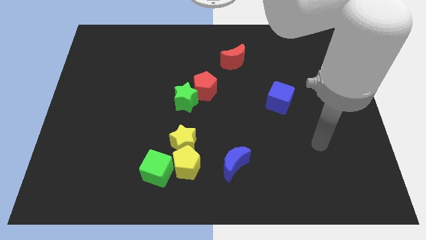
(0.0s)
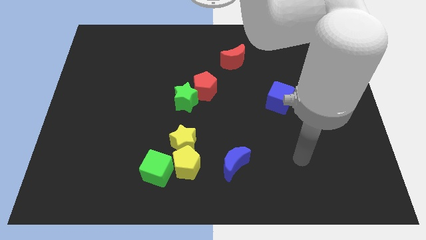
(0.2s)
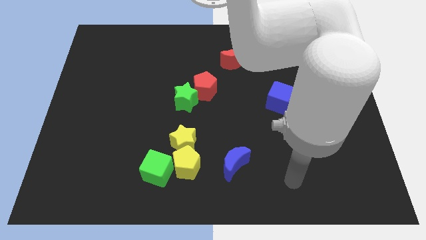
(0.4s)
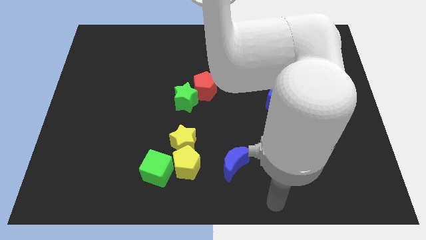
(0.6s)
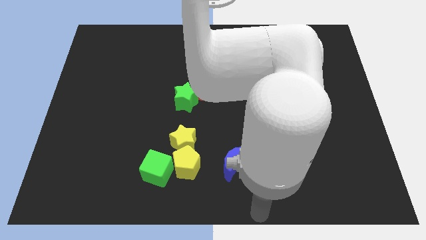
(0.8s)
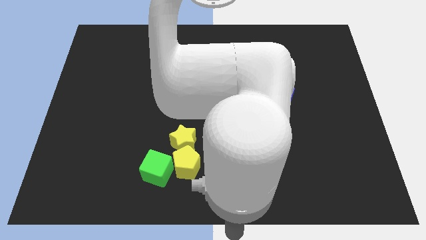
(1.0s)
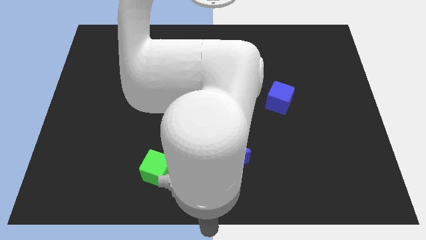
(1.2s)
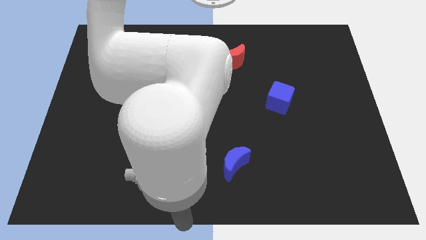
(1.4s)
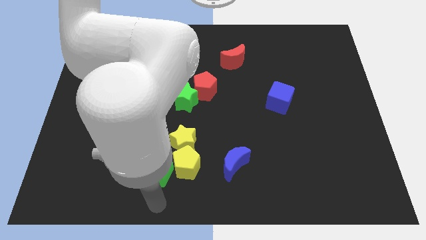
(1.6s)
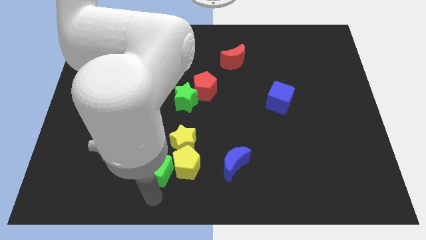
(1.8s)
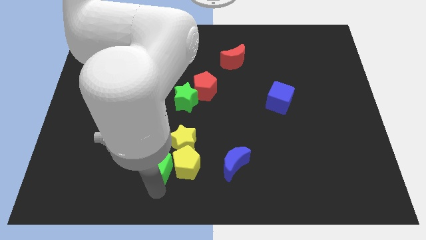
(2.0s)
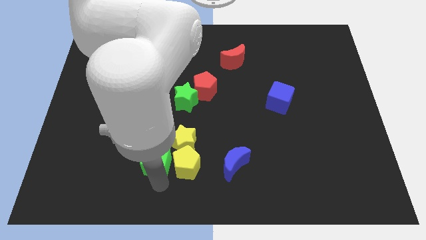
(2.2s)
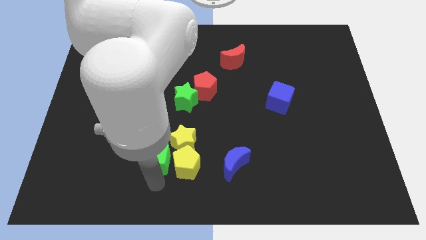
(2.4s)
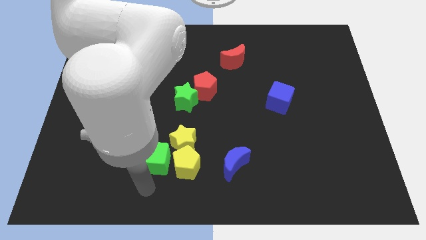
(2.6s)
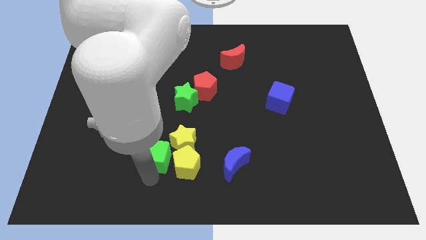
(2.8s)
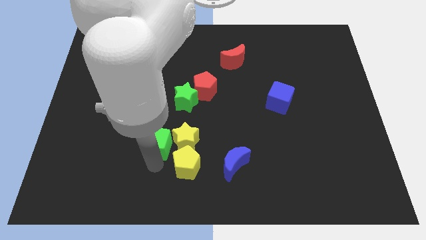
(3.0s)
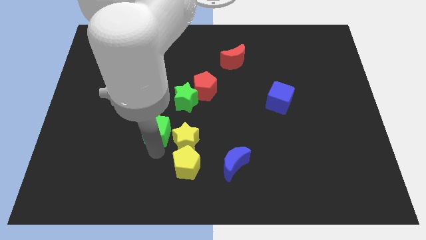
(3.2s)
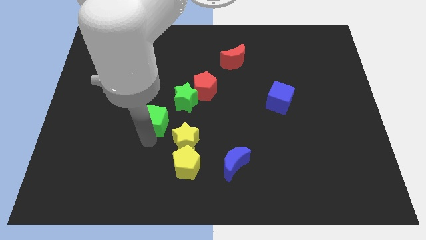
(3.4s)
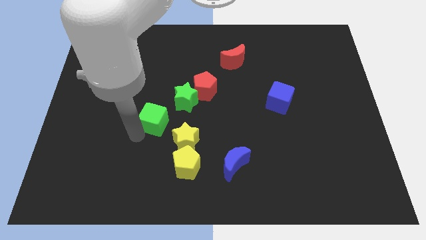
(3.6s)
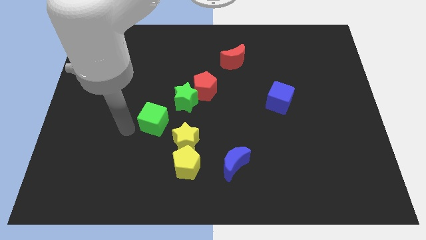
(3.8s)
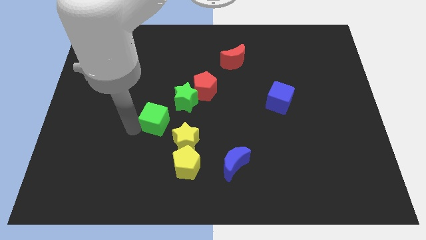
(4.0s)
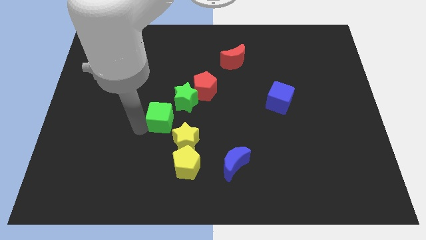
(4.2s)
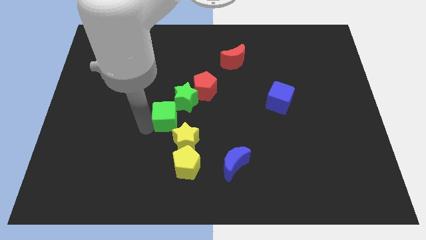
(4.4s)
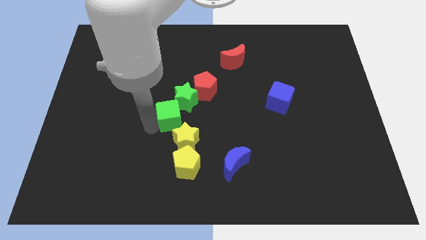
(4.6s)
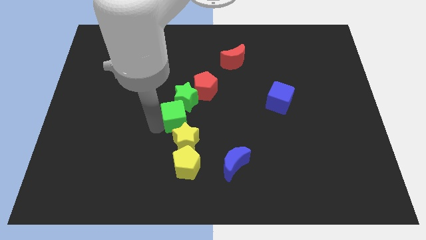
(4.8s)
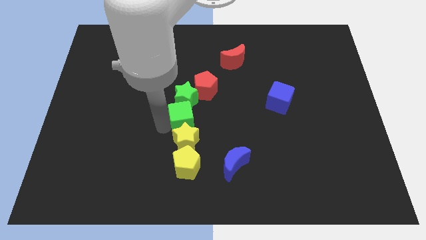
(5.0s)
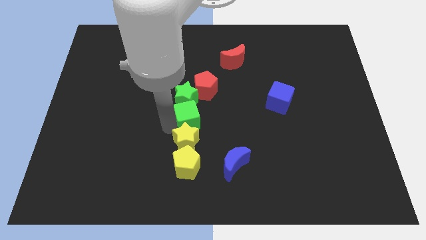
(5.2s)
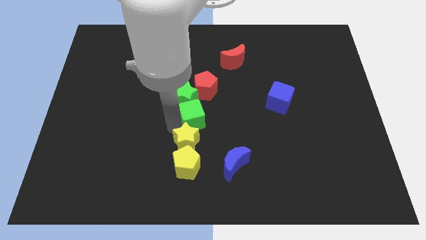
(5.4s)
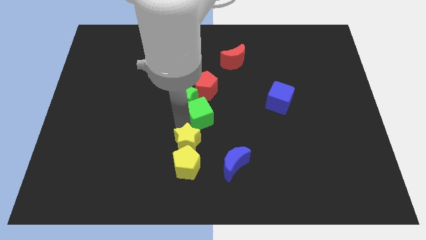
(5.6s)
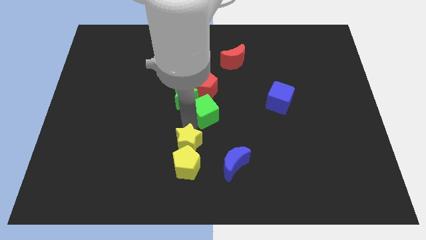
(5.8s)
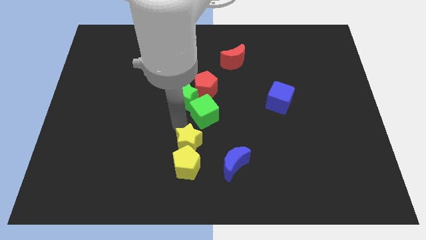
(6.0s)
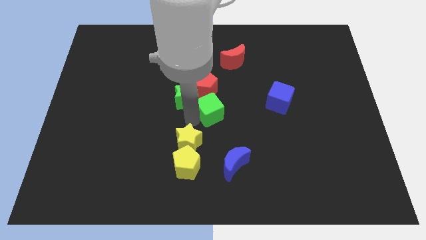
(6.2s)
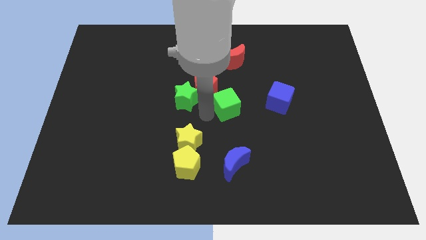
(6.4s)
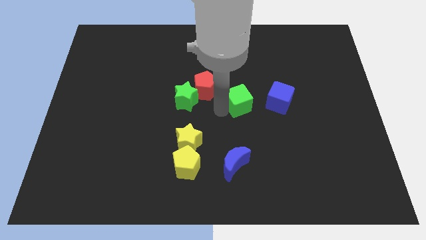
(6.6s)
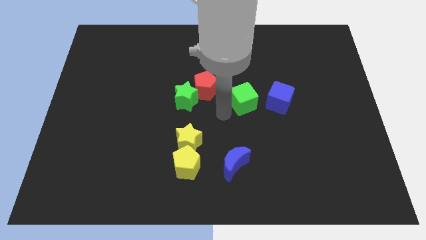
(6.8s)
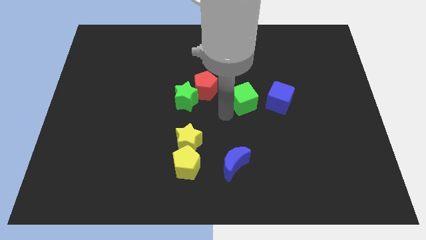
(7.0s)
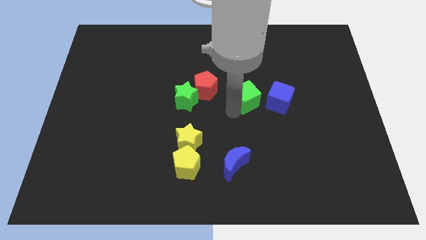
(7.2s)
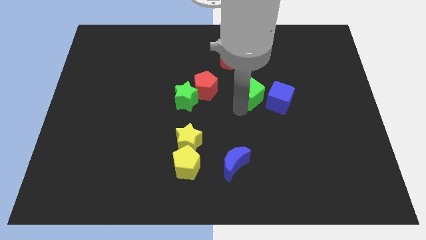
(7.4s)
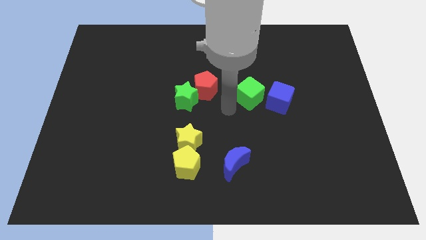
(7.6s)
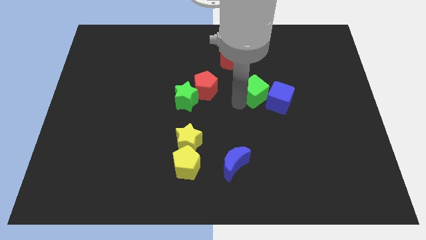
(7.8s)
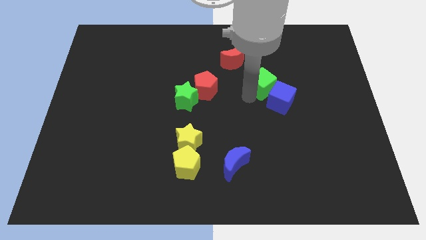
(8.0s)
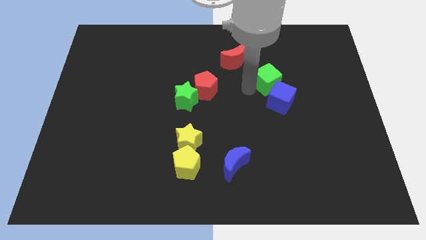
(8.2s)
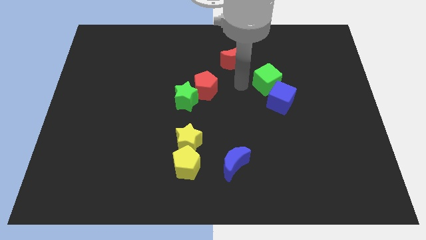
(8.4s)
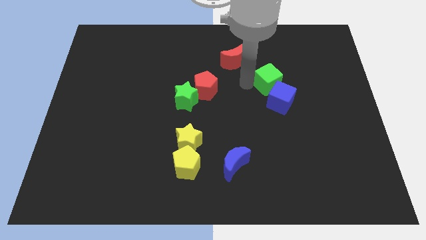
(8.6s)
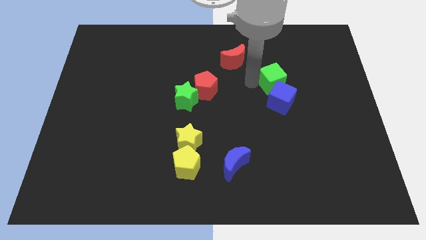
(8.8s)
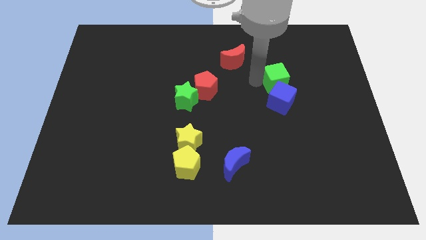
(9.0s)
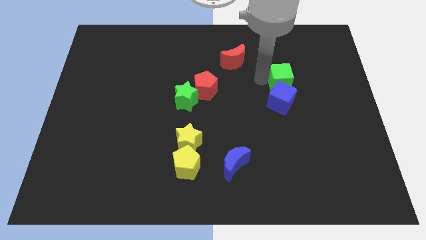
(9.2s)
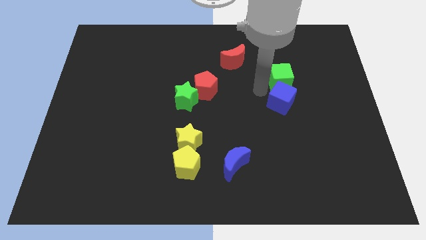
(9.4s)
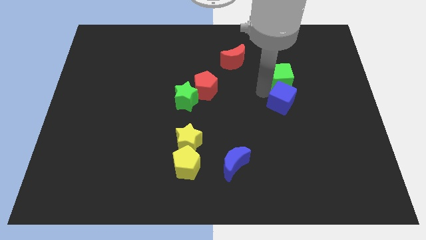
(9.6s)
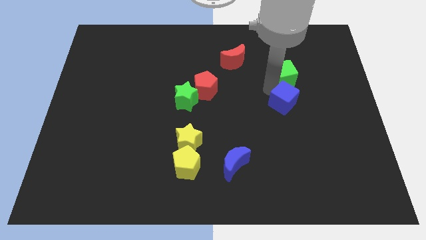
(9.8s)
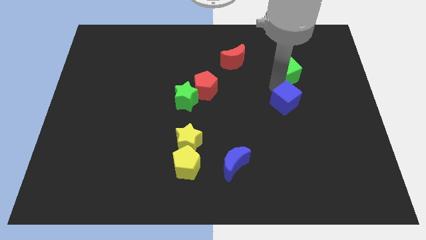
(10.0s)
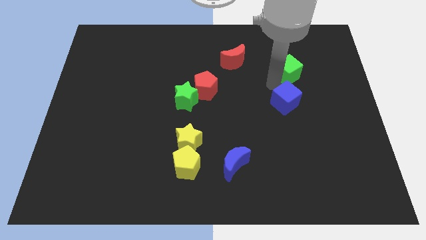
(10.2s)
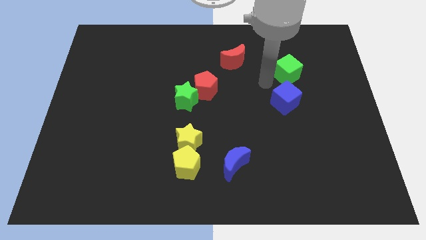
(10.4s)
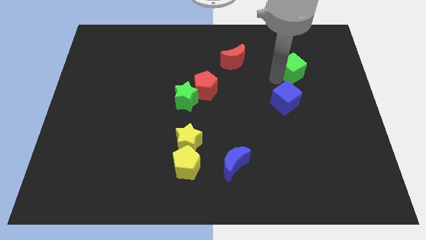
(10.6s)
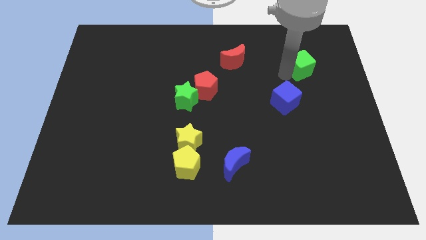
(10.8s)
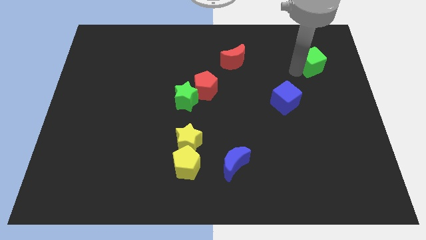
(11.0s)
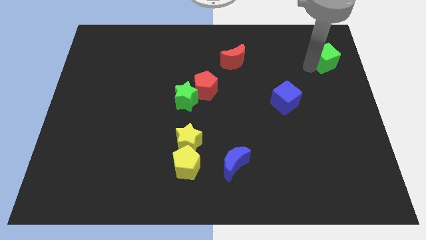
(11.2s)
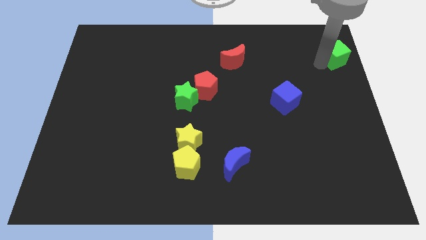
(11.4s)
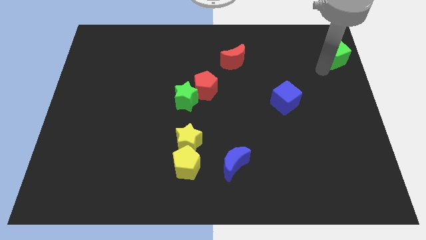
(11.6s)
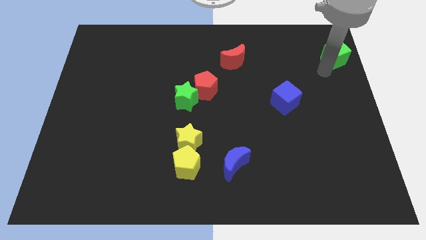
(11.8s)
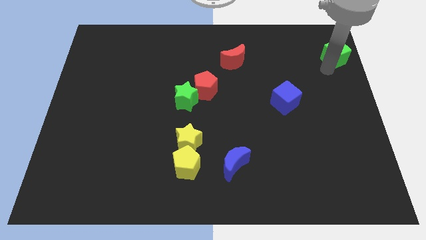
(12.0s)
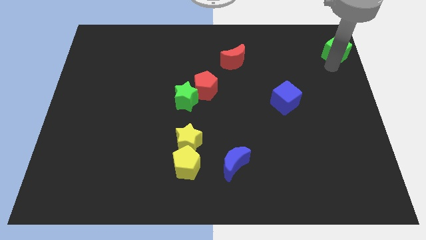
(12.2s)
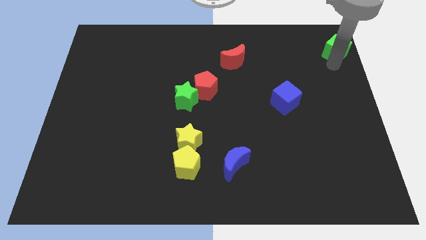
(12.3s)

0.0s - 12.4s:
put the green cube to the top right corner
